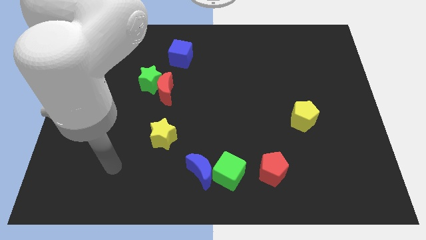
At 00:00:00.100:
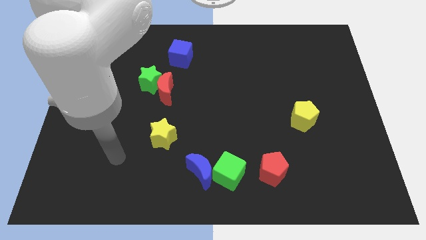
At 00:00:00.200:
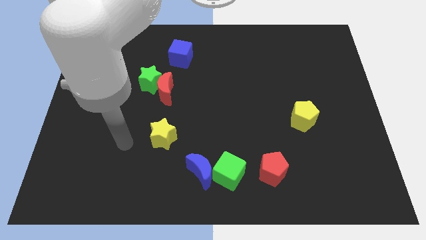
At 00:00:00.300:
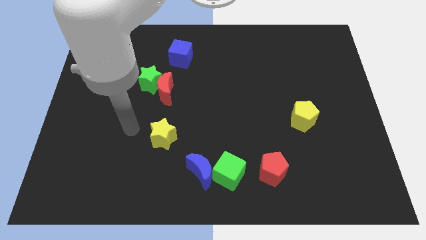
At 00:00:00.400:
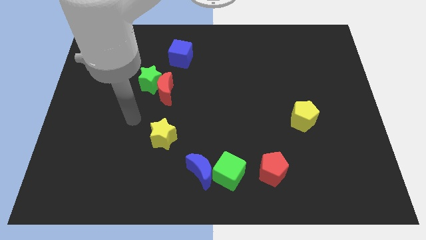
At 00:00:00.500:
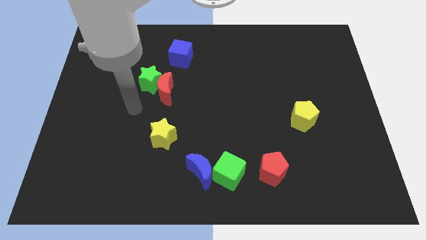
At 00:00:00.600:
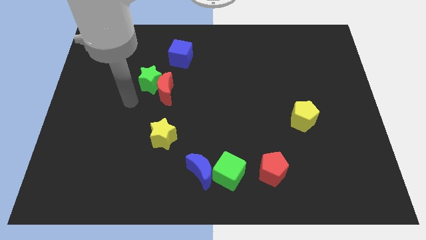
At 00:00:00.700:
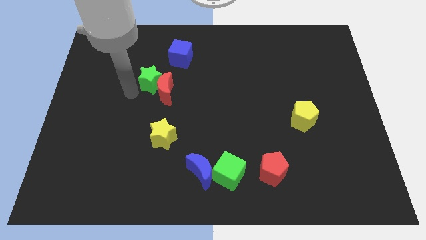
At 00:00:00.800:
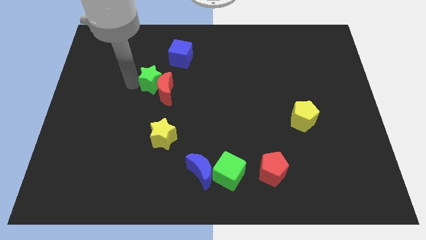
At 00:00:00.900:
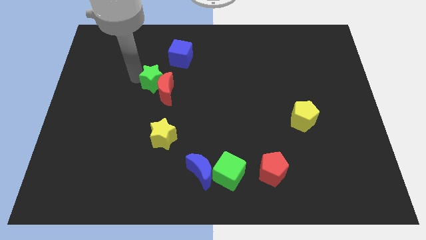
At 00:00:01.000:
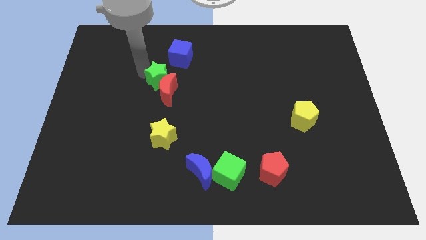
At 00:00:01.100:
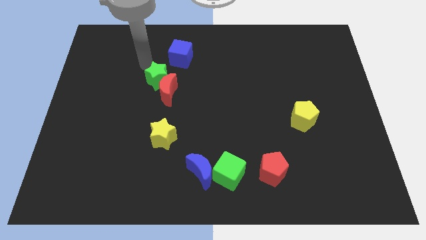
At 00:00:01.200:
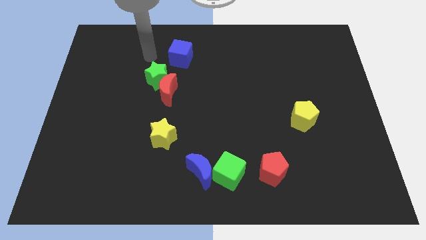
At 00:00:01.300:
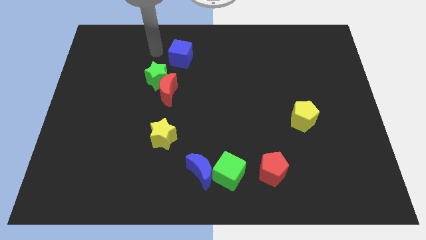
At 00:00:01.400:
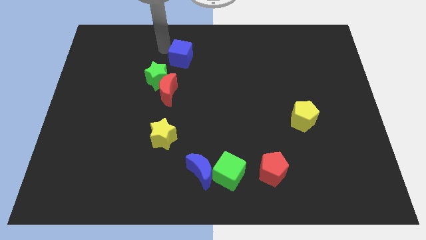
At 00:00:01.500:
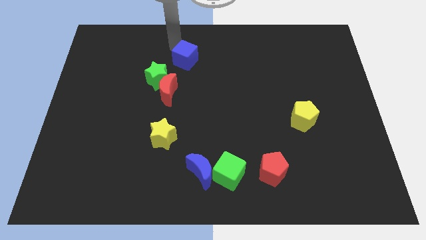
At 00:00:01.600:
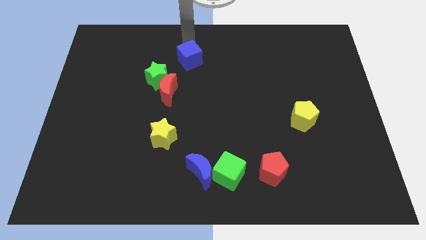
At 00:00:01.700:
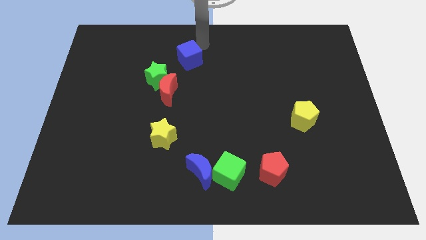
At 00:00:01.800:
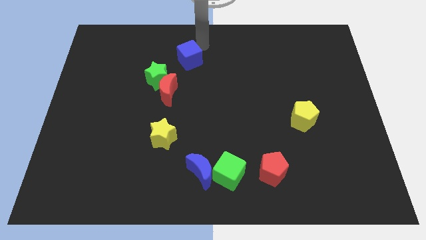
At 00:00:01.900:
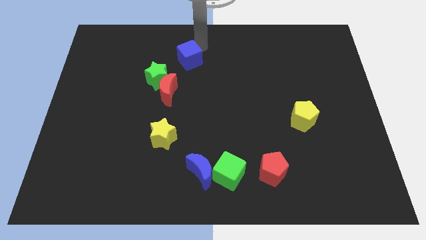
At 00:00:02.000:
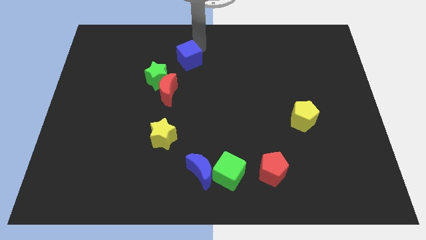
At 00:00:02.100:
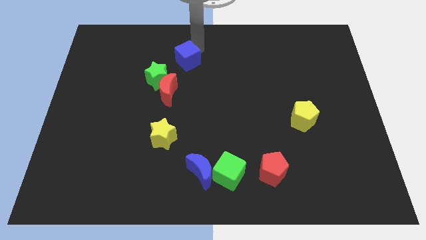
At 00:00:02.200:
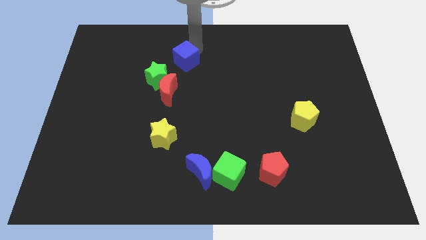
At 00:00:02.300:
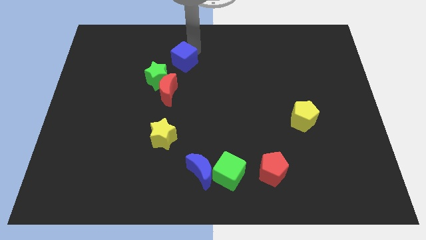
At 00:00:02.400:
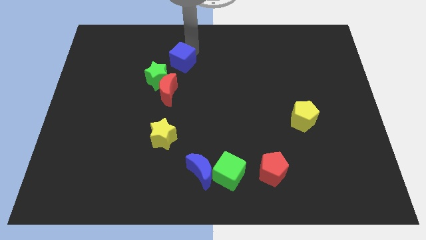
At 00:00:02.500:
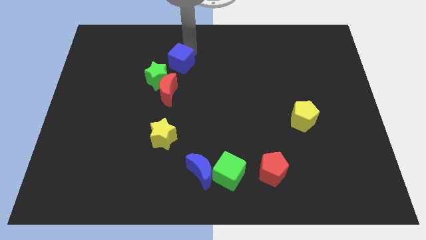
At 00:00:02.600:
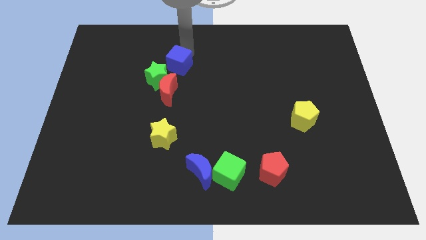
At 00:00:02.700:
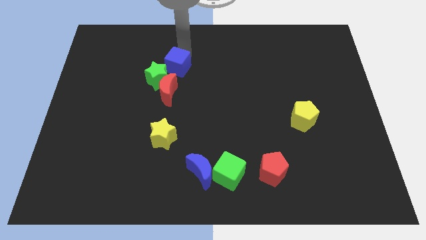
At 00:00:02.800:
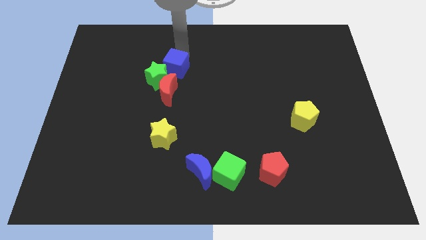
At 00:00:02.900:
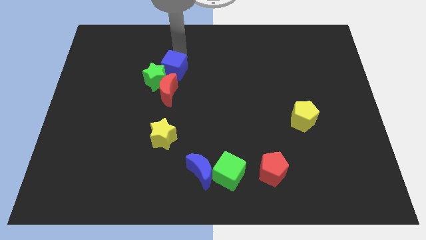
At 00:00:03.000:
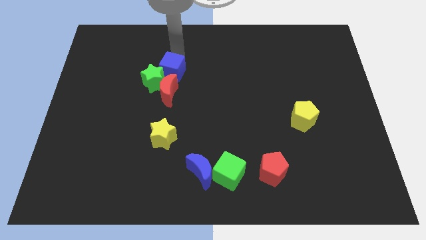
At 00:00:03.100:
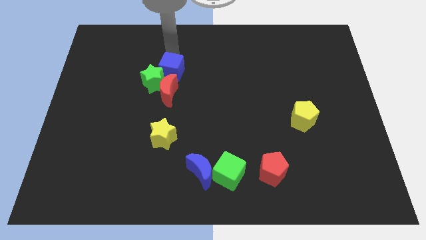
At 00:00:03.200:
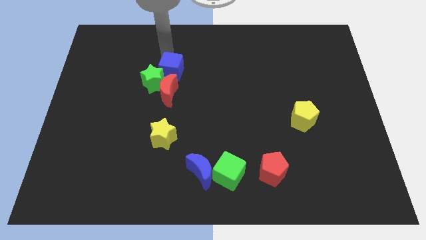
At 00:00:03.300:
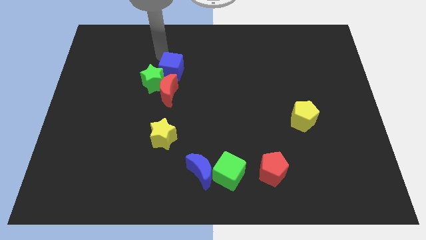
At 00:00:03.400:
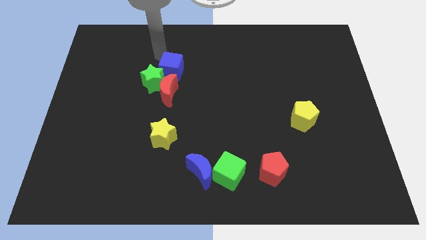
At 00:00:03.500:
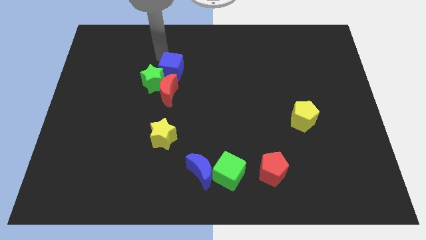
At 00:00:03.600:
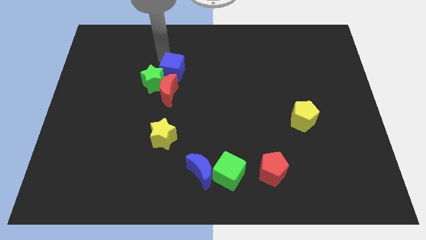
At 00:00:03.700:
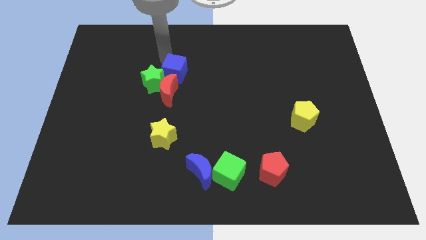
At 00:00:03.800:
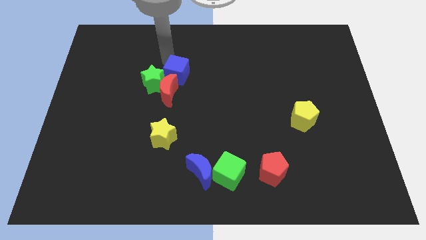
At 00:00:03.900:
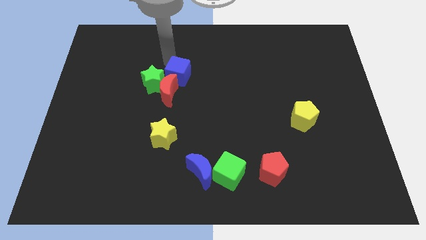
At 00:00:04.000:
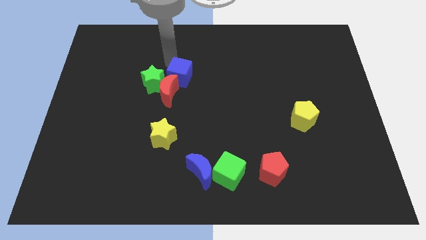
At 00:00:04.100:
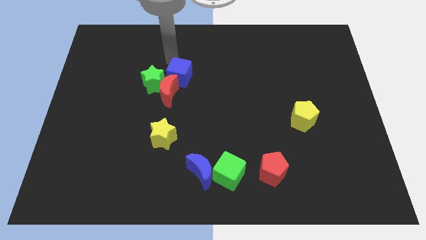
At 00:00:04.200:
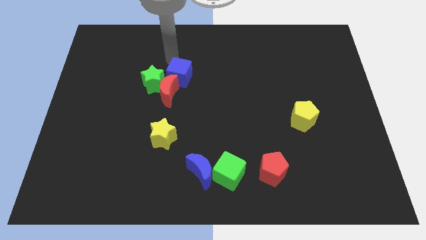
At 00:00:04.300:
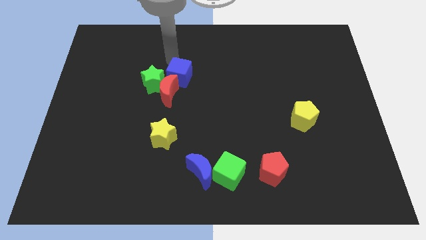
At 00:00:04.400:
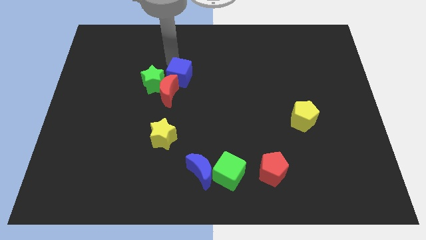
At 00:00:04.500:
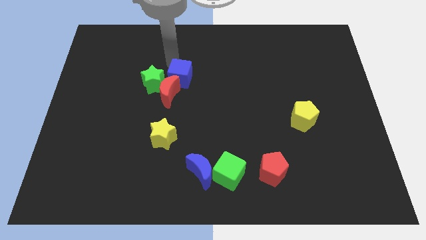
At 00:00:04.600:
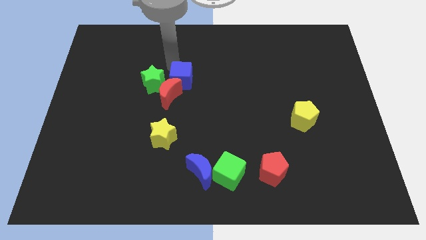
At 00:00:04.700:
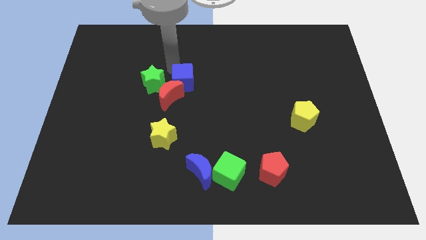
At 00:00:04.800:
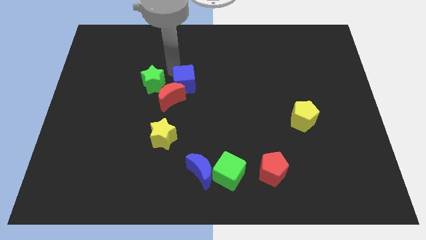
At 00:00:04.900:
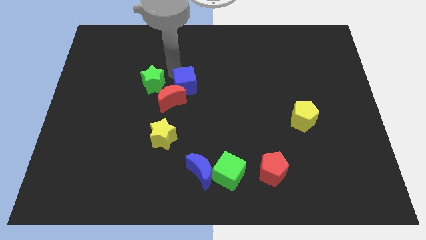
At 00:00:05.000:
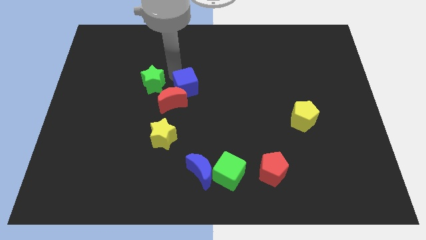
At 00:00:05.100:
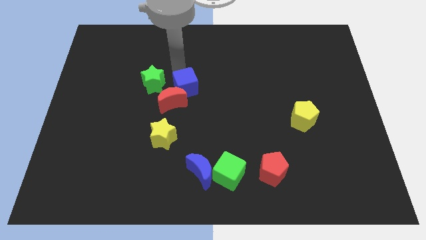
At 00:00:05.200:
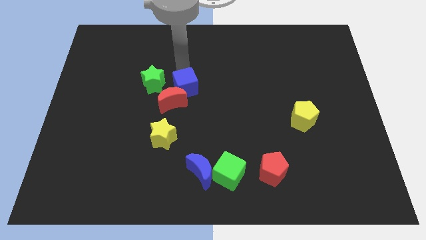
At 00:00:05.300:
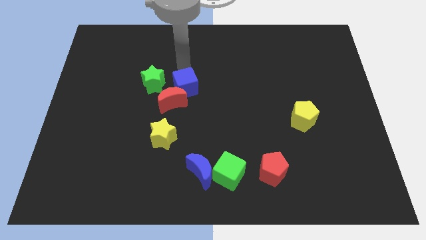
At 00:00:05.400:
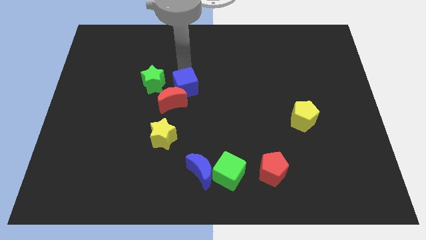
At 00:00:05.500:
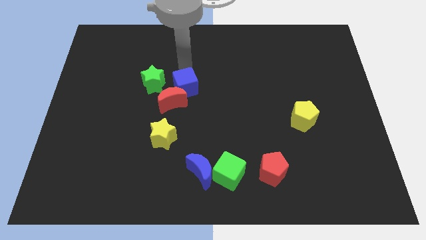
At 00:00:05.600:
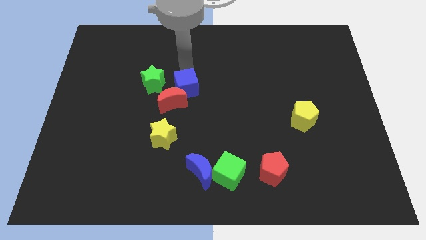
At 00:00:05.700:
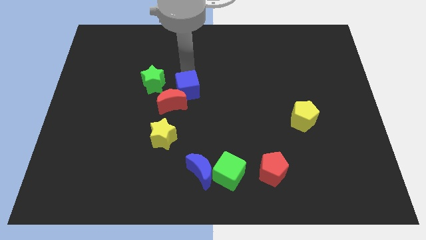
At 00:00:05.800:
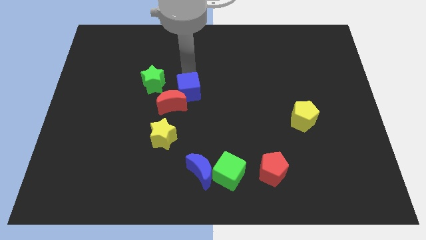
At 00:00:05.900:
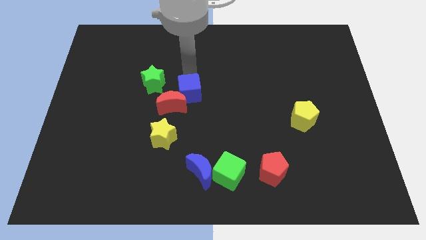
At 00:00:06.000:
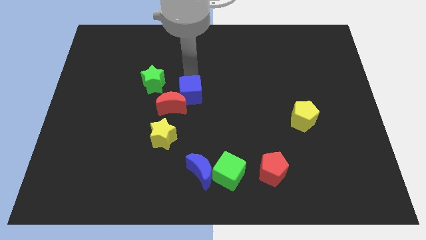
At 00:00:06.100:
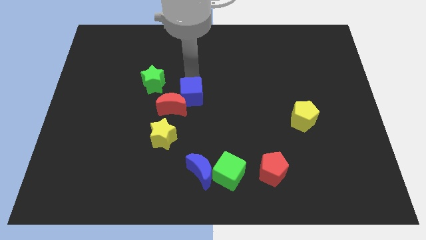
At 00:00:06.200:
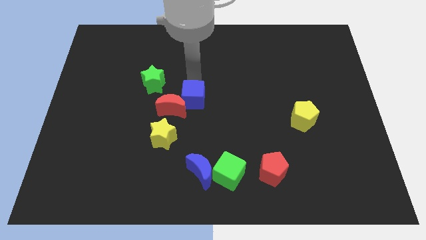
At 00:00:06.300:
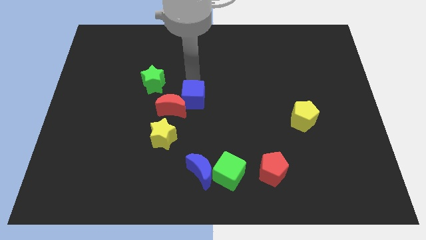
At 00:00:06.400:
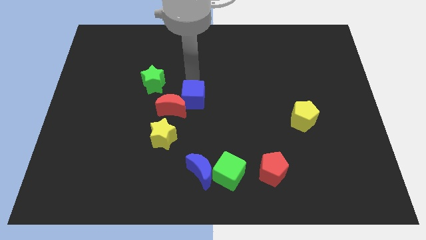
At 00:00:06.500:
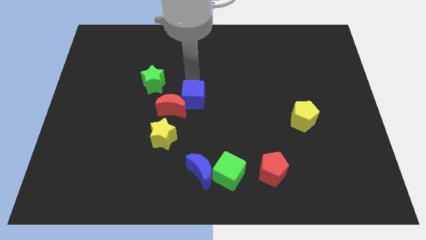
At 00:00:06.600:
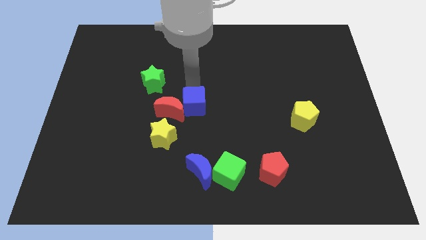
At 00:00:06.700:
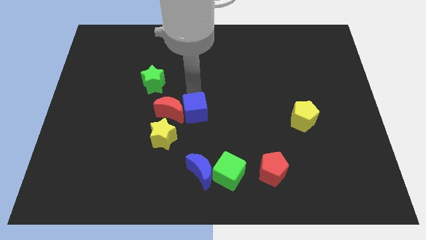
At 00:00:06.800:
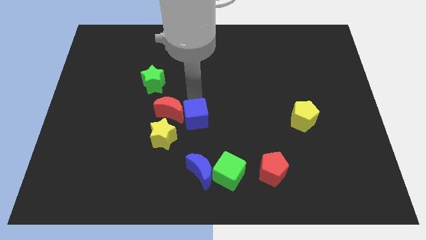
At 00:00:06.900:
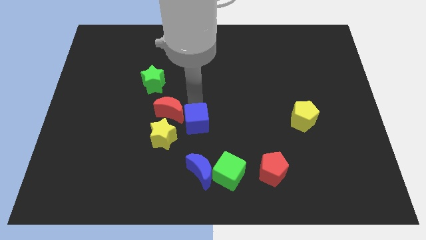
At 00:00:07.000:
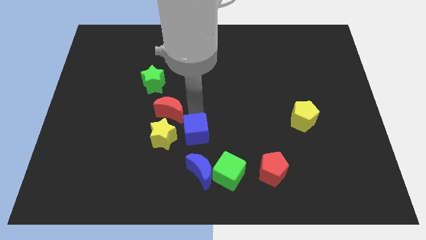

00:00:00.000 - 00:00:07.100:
slide the blue cube to the top left side of the green cube
